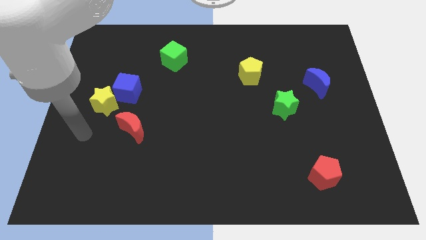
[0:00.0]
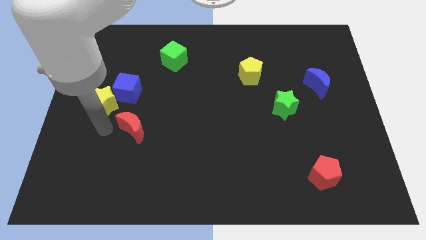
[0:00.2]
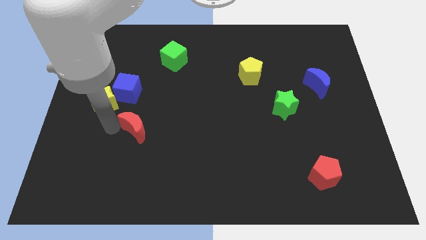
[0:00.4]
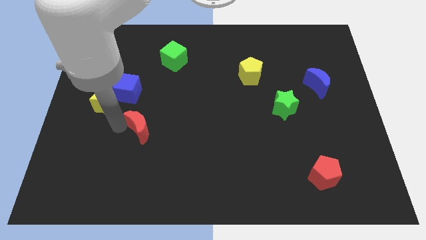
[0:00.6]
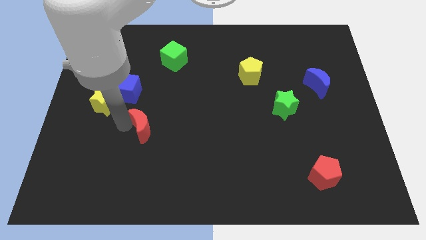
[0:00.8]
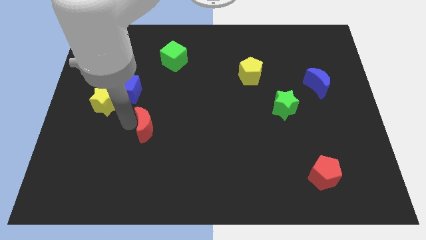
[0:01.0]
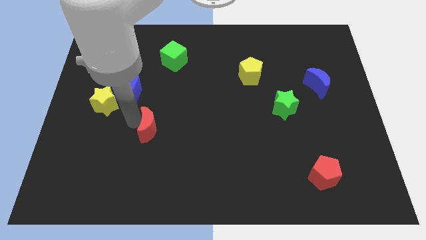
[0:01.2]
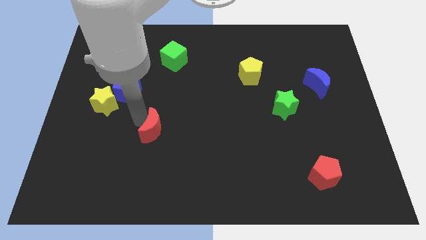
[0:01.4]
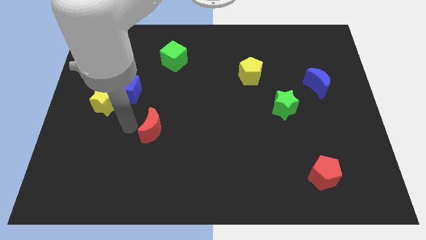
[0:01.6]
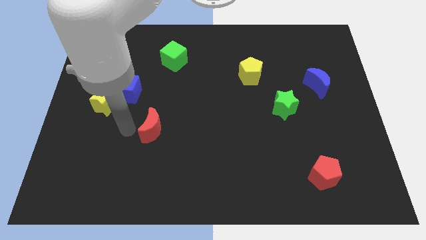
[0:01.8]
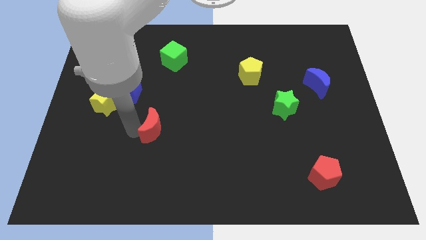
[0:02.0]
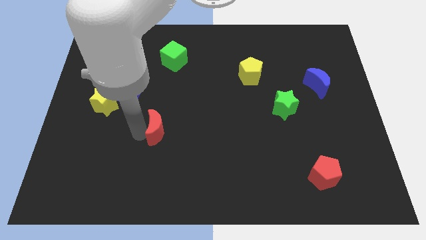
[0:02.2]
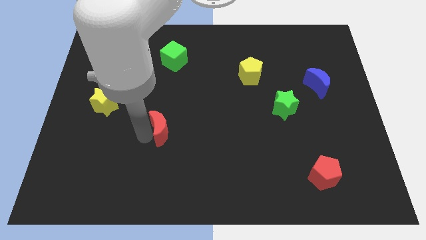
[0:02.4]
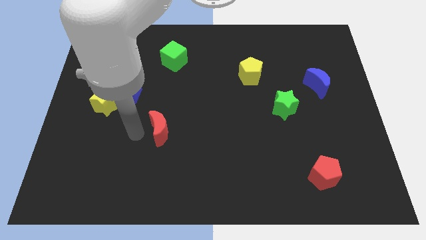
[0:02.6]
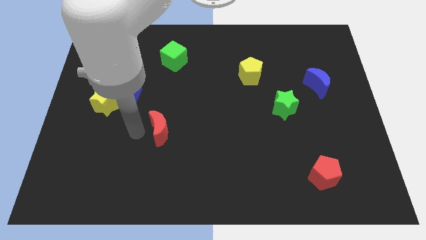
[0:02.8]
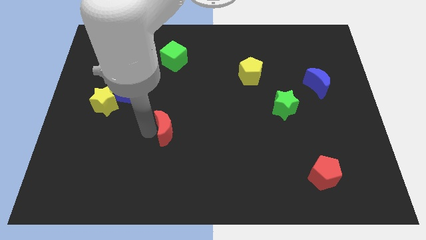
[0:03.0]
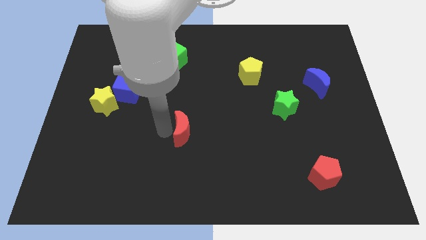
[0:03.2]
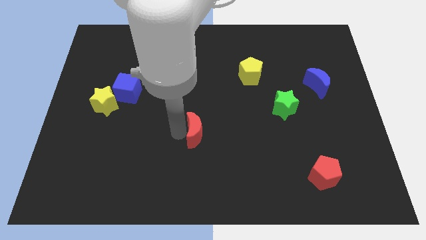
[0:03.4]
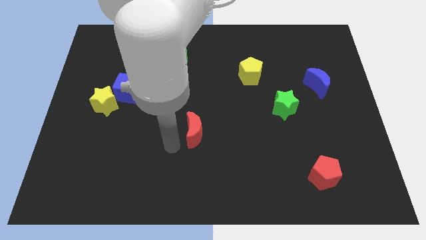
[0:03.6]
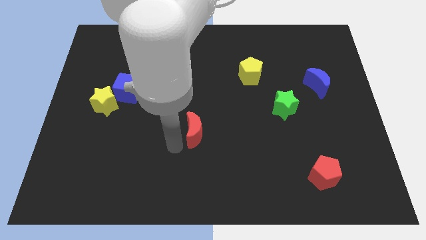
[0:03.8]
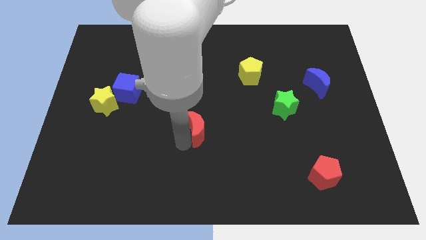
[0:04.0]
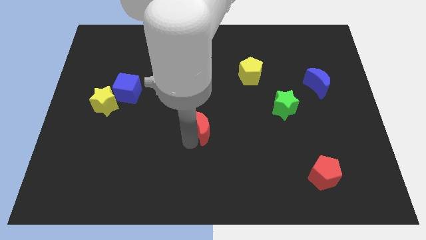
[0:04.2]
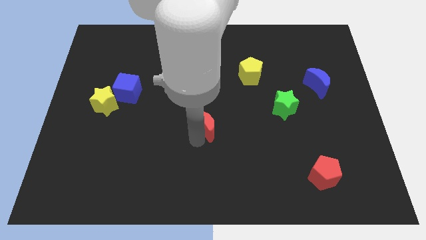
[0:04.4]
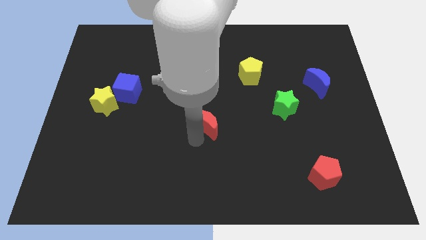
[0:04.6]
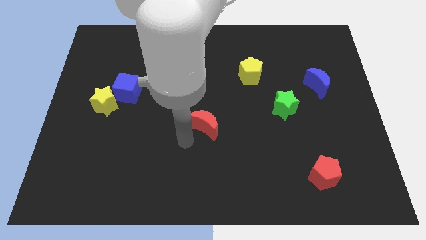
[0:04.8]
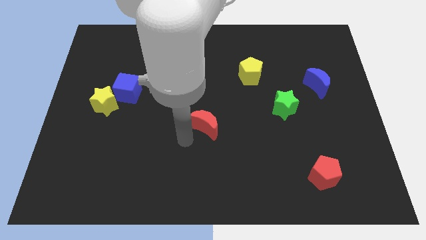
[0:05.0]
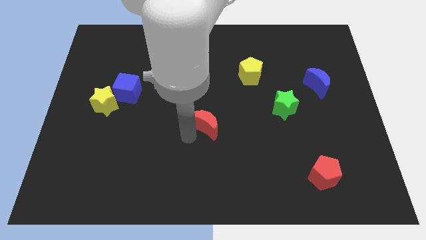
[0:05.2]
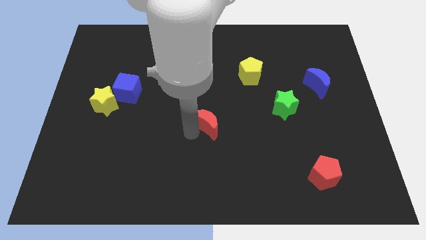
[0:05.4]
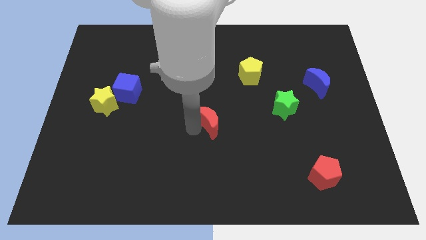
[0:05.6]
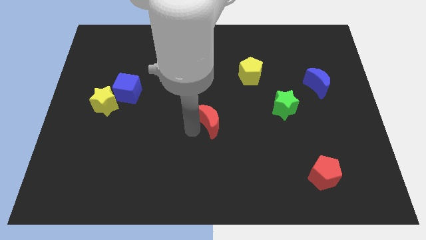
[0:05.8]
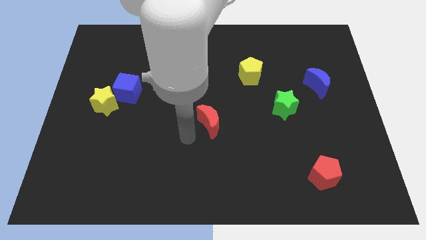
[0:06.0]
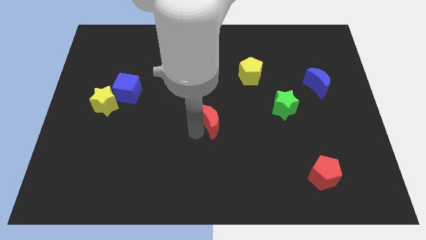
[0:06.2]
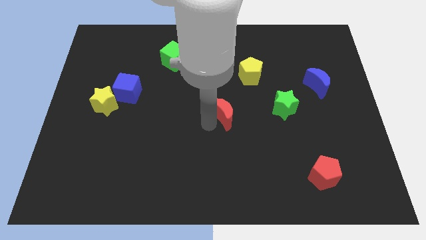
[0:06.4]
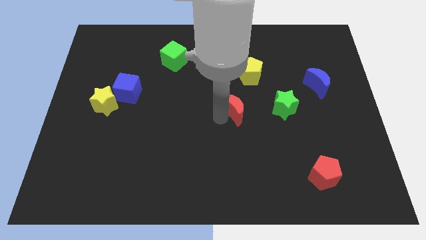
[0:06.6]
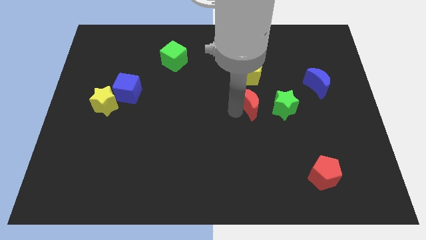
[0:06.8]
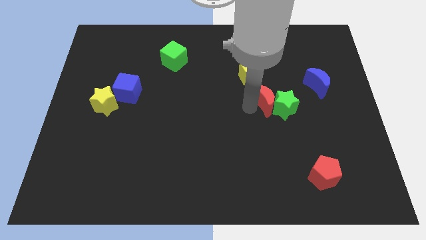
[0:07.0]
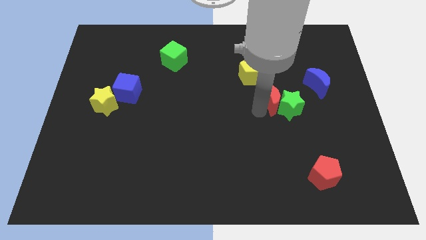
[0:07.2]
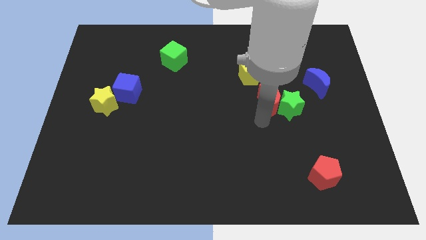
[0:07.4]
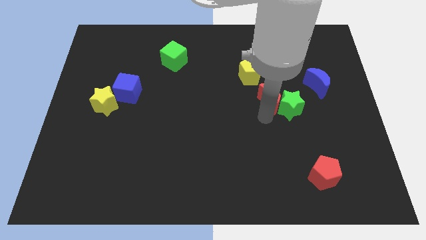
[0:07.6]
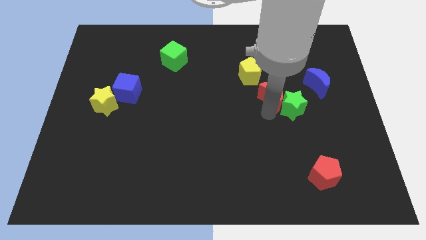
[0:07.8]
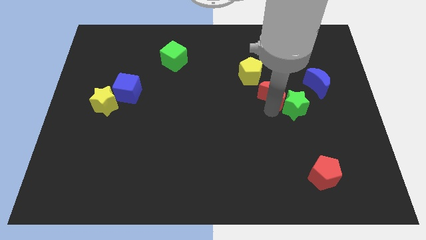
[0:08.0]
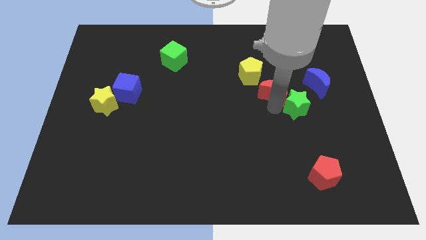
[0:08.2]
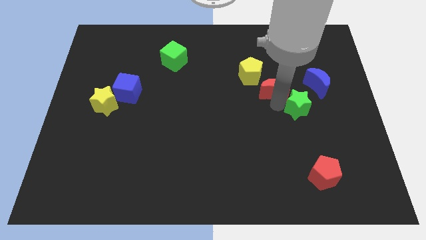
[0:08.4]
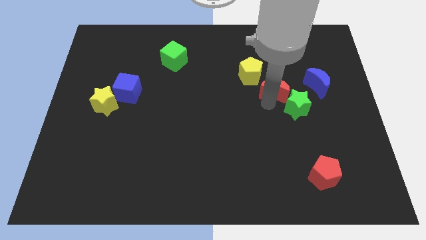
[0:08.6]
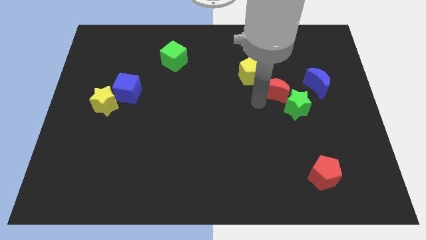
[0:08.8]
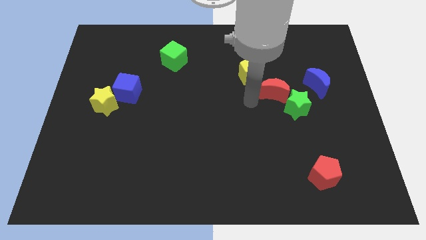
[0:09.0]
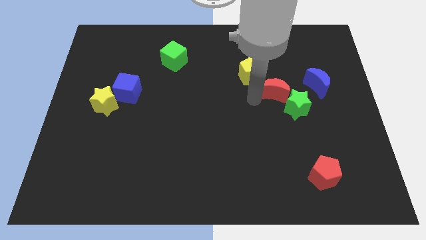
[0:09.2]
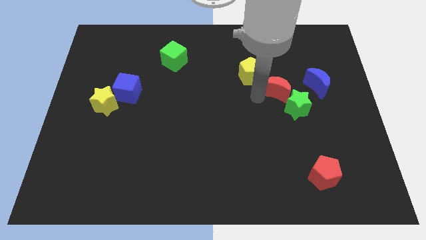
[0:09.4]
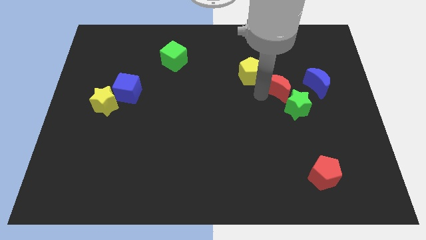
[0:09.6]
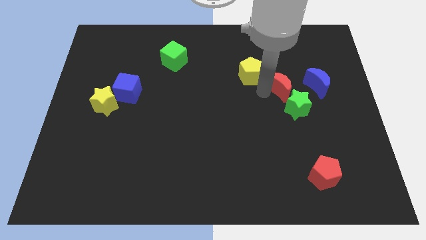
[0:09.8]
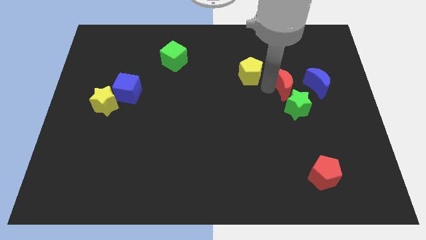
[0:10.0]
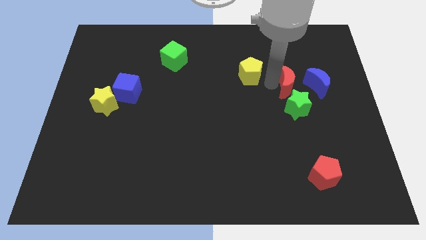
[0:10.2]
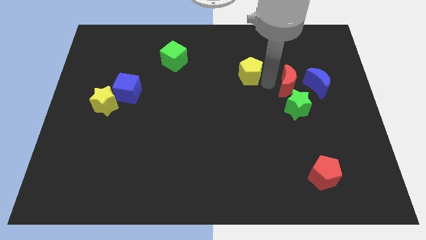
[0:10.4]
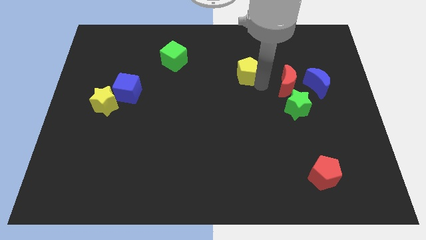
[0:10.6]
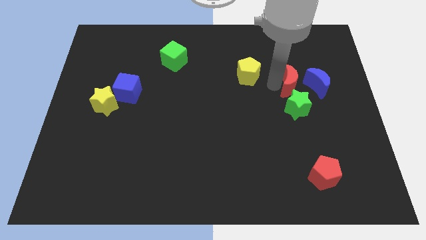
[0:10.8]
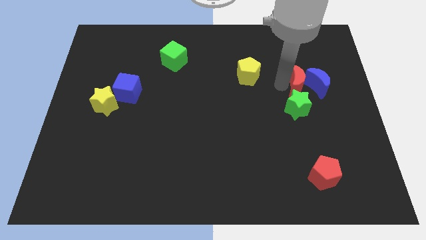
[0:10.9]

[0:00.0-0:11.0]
put the red moon close to the blue moon

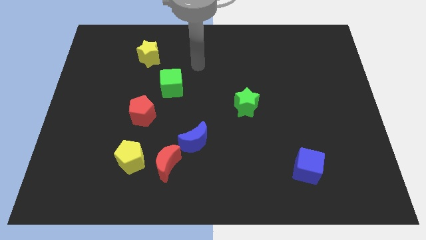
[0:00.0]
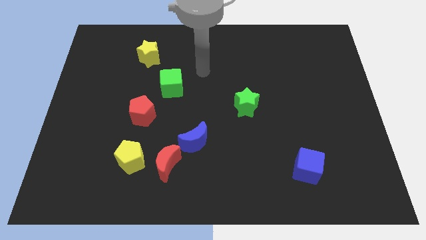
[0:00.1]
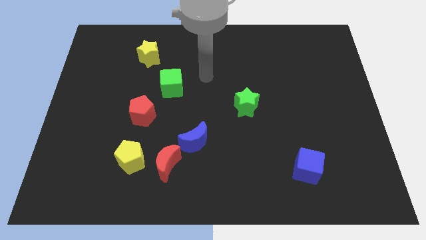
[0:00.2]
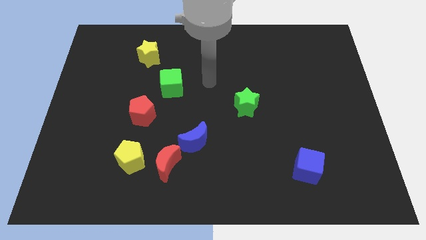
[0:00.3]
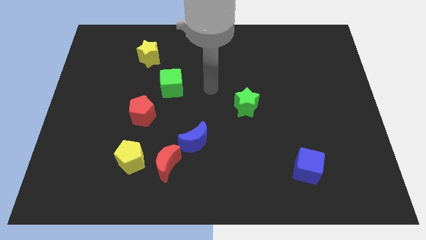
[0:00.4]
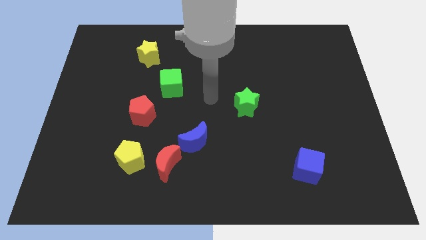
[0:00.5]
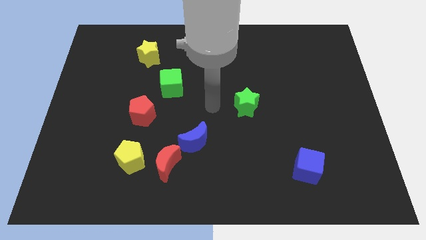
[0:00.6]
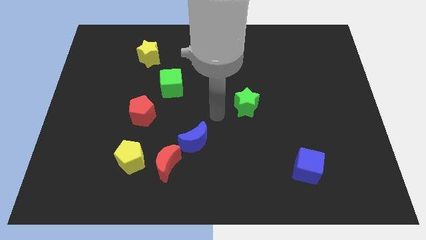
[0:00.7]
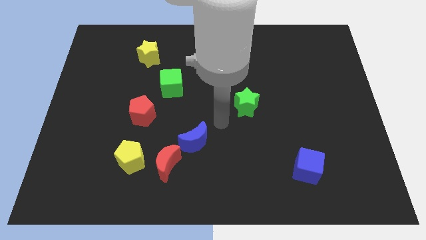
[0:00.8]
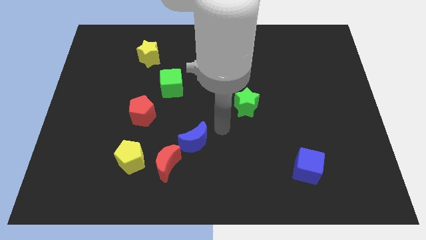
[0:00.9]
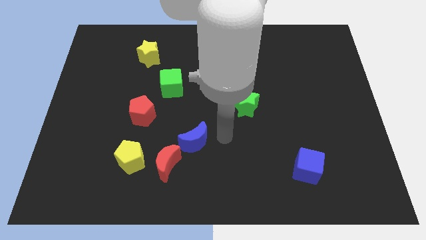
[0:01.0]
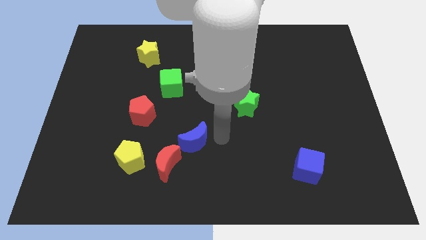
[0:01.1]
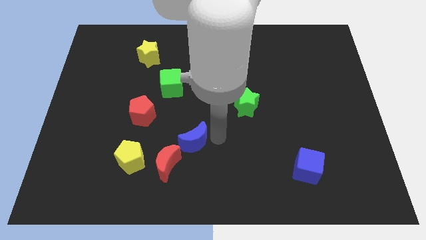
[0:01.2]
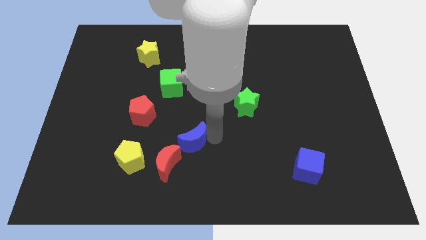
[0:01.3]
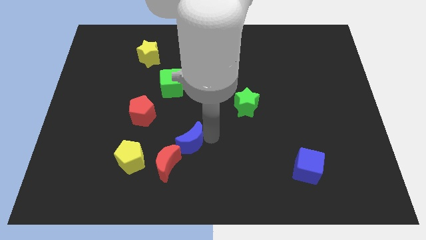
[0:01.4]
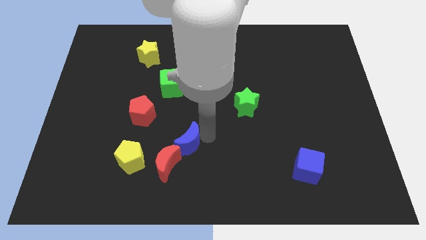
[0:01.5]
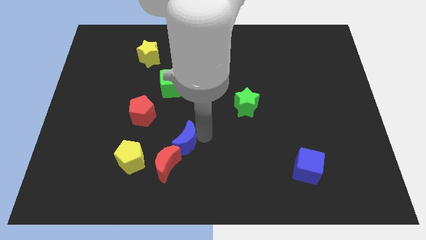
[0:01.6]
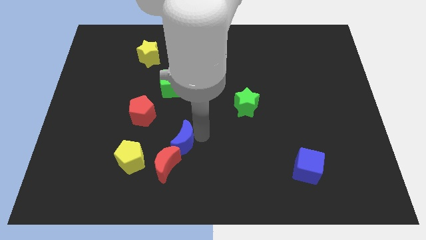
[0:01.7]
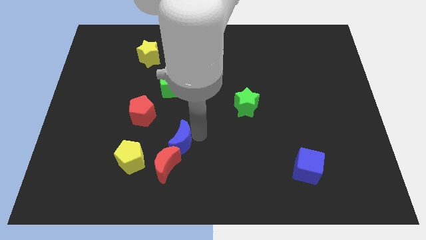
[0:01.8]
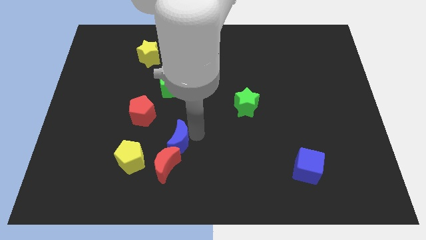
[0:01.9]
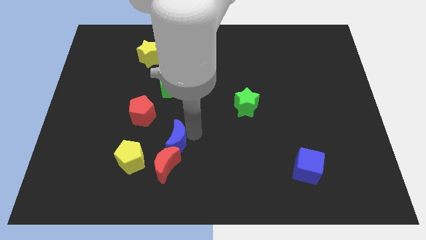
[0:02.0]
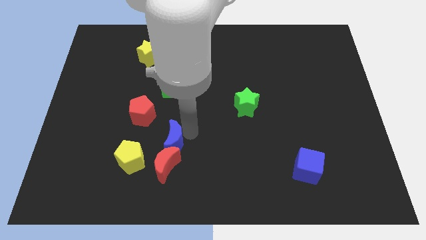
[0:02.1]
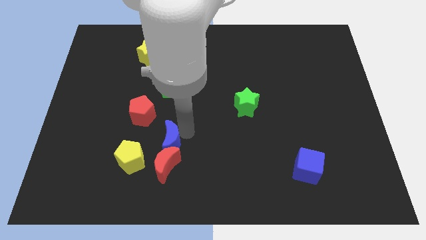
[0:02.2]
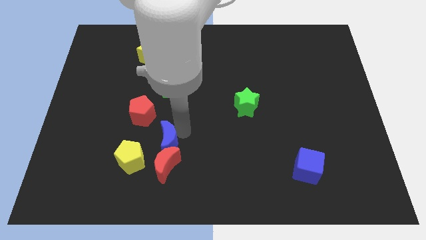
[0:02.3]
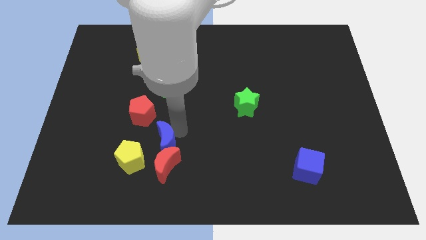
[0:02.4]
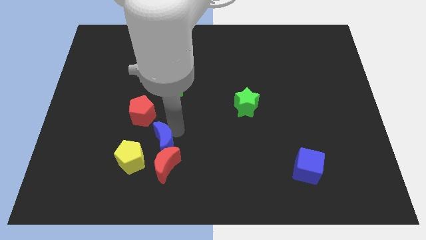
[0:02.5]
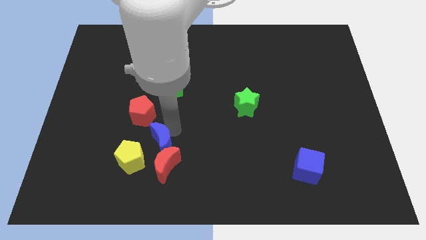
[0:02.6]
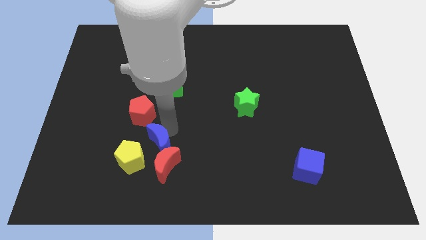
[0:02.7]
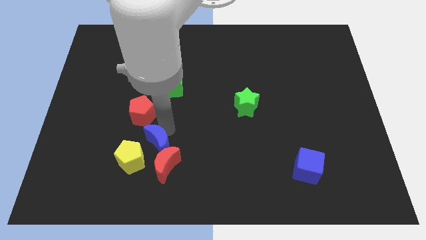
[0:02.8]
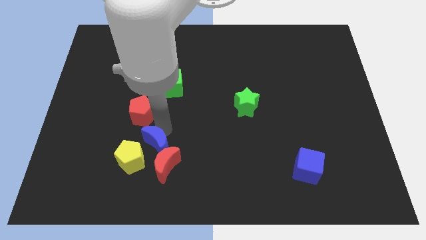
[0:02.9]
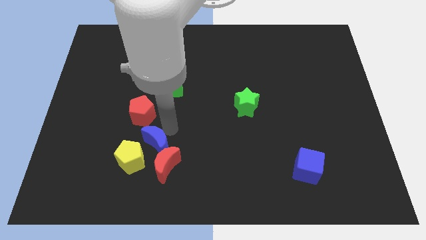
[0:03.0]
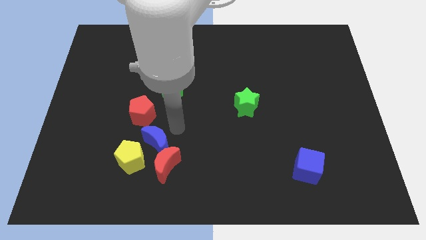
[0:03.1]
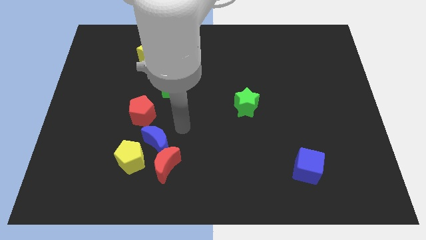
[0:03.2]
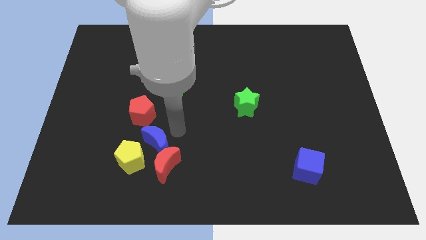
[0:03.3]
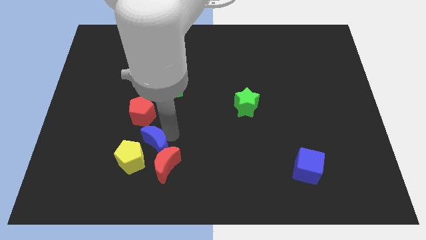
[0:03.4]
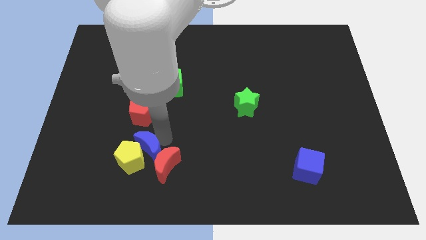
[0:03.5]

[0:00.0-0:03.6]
slide the blue moon close to the yellow pentagon
